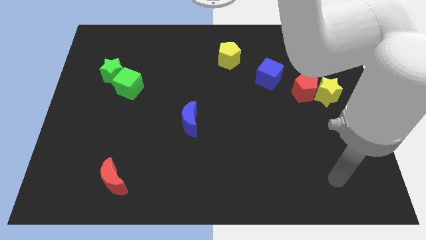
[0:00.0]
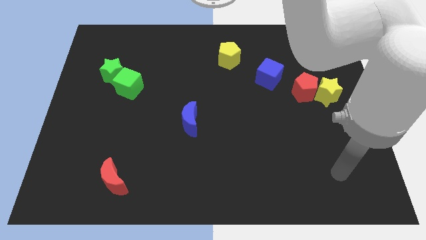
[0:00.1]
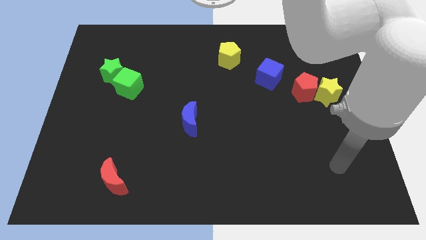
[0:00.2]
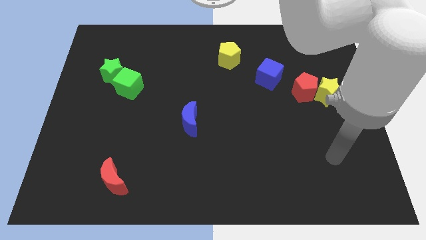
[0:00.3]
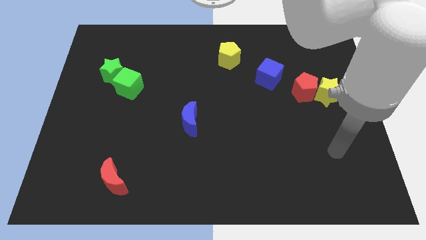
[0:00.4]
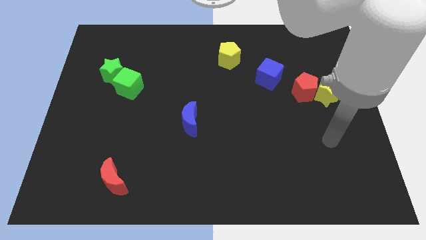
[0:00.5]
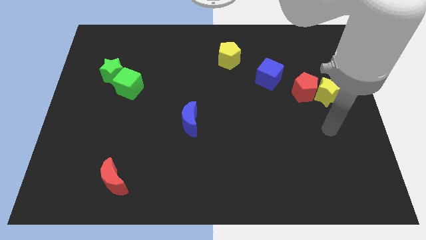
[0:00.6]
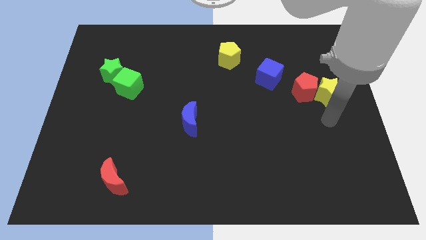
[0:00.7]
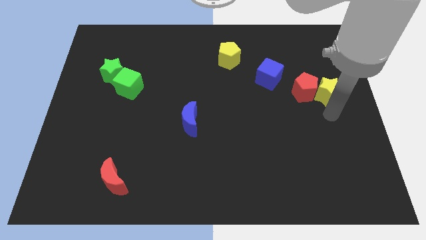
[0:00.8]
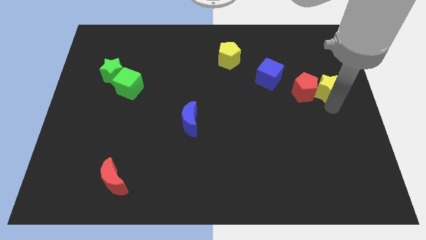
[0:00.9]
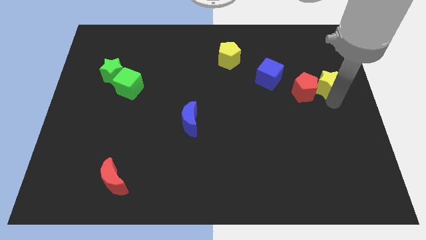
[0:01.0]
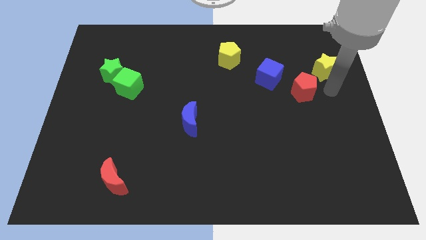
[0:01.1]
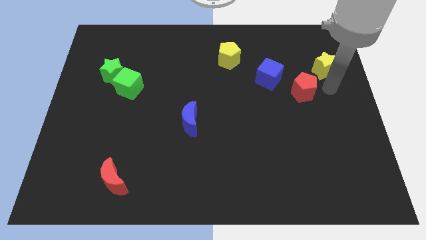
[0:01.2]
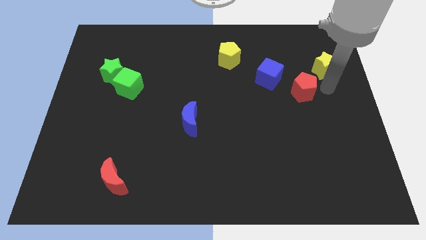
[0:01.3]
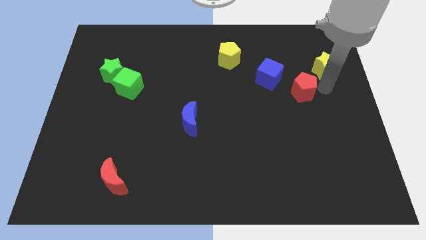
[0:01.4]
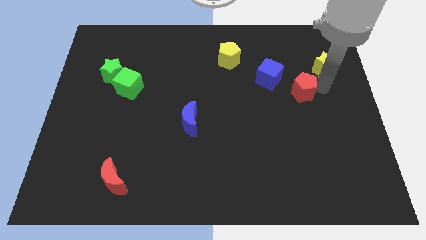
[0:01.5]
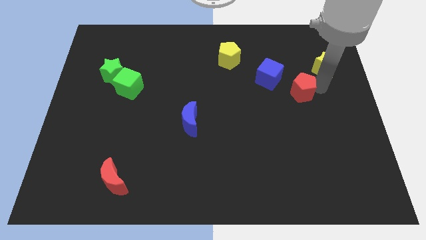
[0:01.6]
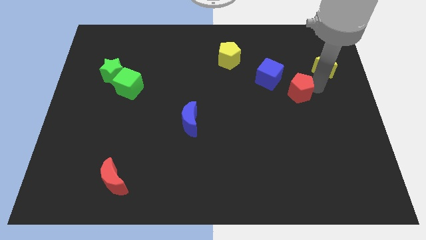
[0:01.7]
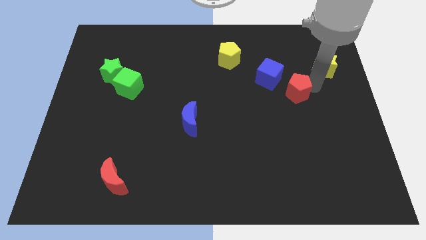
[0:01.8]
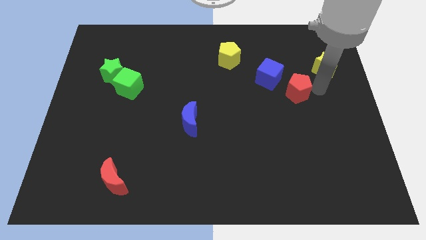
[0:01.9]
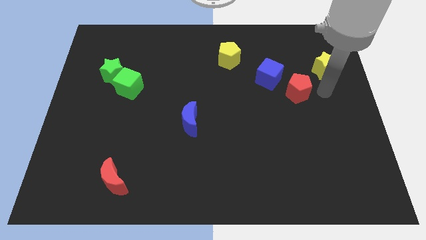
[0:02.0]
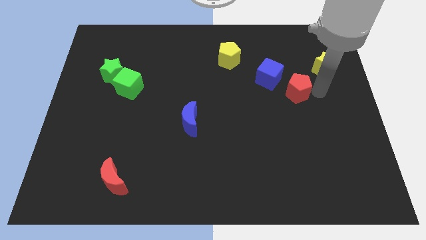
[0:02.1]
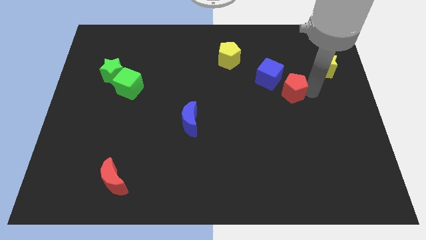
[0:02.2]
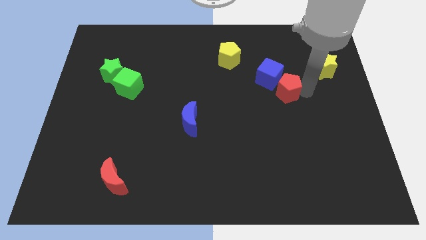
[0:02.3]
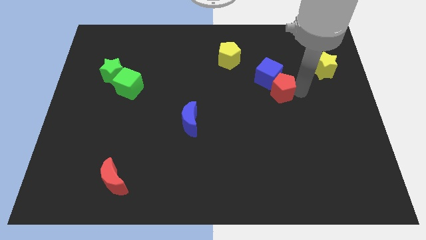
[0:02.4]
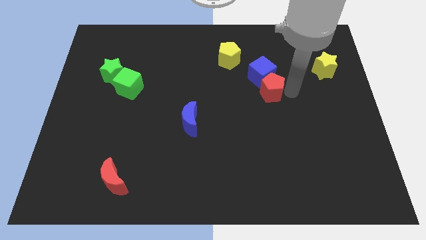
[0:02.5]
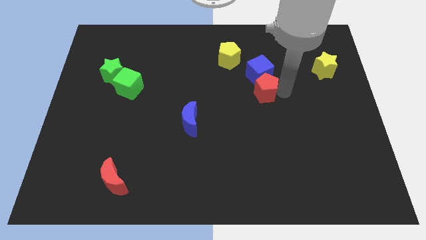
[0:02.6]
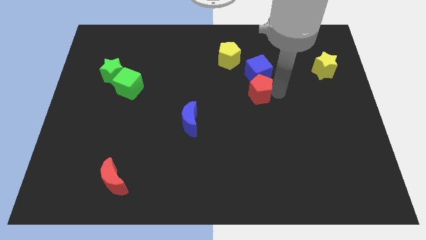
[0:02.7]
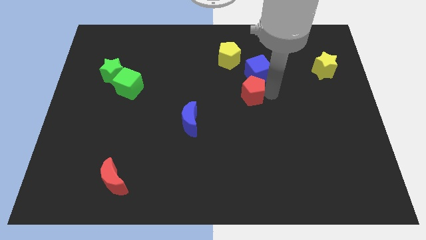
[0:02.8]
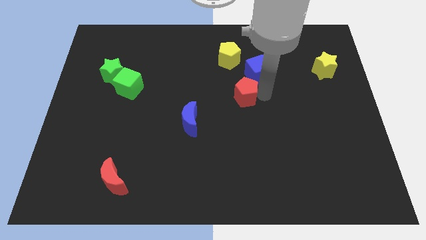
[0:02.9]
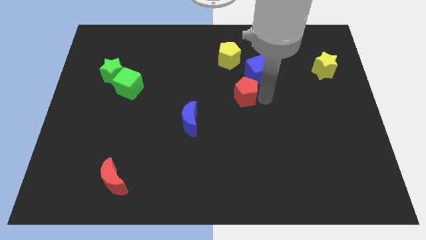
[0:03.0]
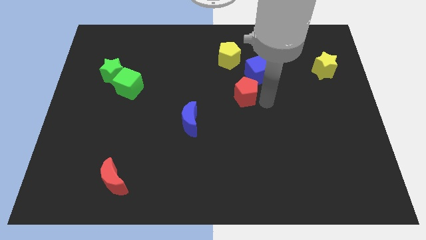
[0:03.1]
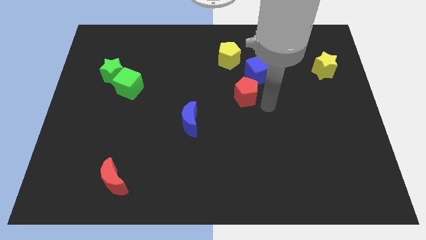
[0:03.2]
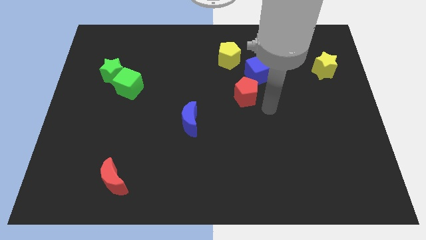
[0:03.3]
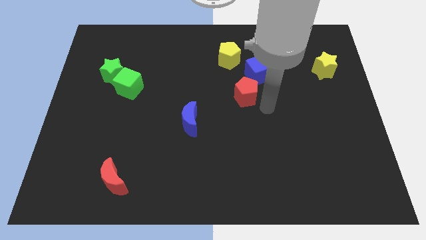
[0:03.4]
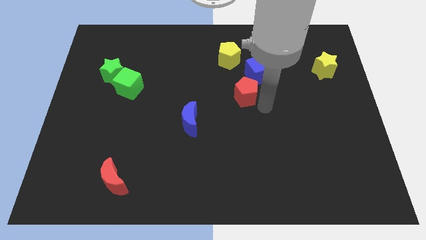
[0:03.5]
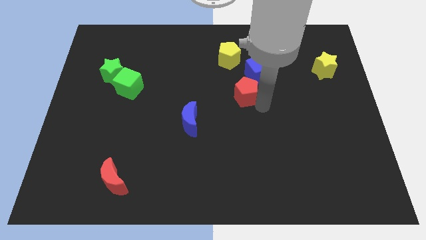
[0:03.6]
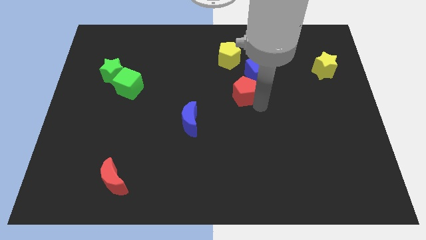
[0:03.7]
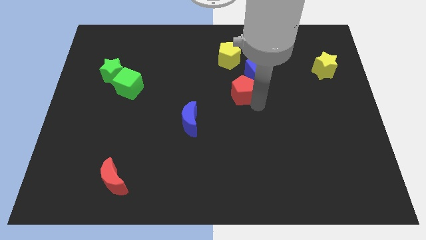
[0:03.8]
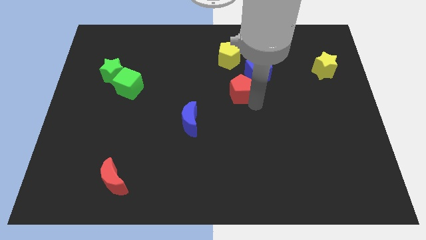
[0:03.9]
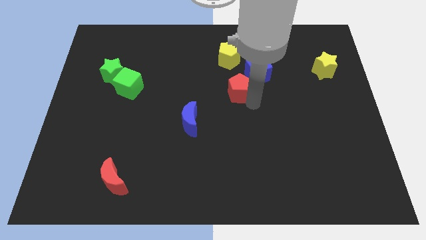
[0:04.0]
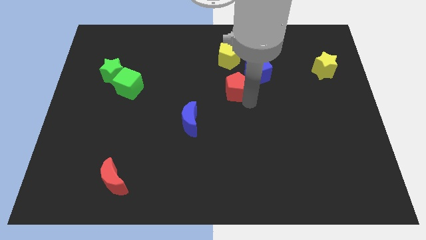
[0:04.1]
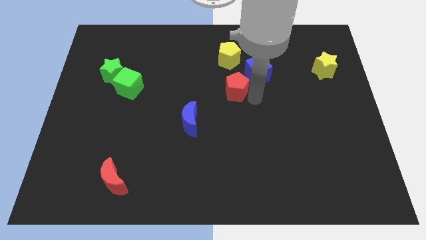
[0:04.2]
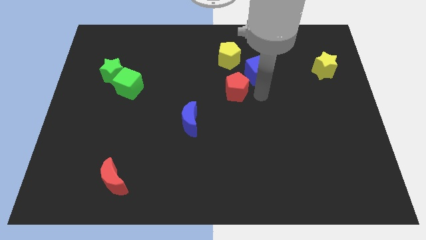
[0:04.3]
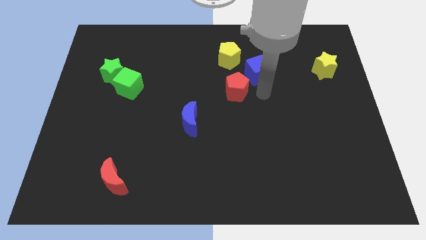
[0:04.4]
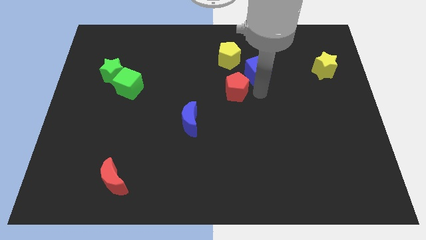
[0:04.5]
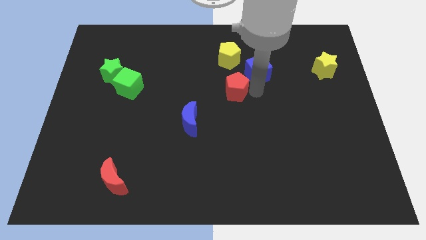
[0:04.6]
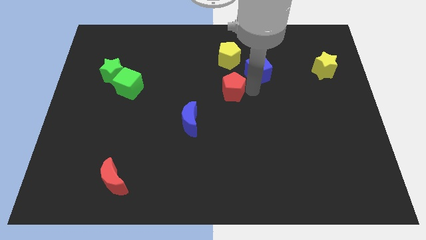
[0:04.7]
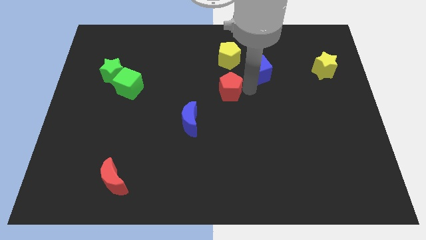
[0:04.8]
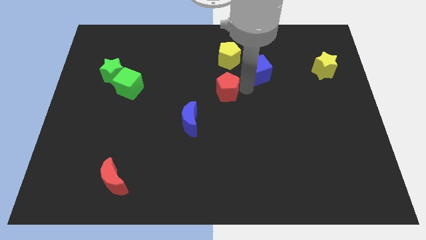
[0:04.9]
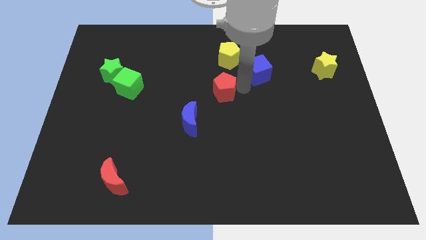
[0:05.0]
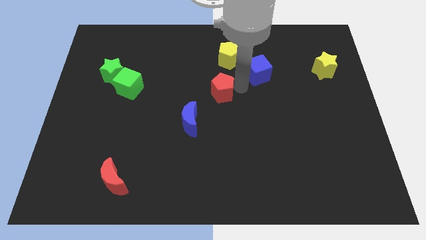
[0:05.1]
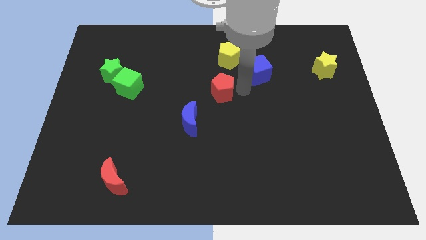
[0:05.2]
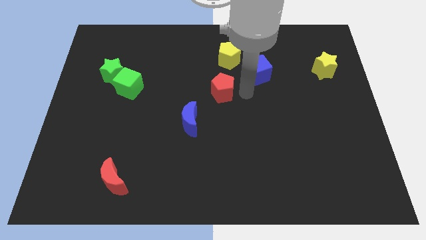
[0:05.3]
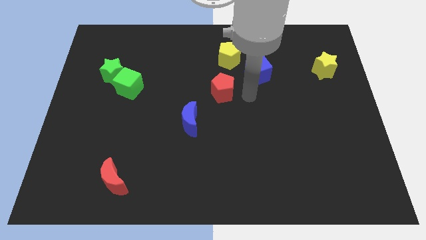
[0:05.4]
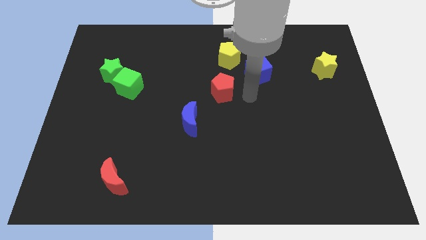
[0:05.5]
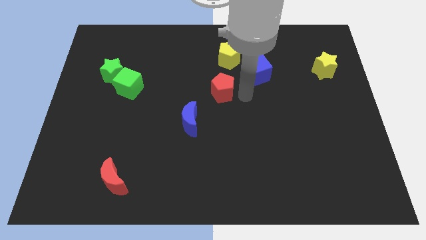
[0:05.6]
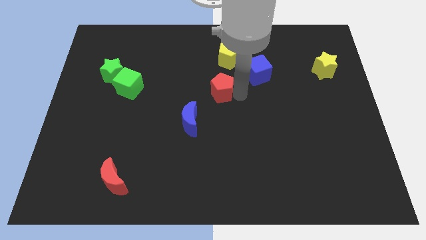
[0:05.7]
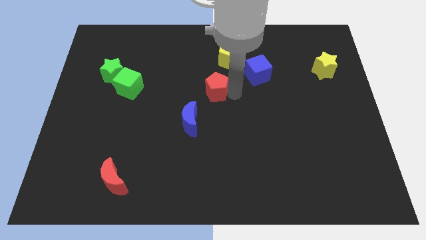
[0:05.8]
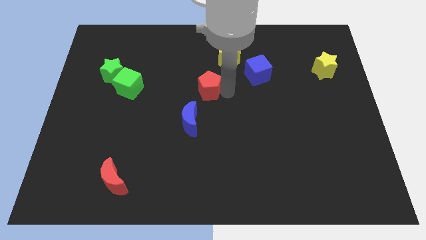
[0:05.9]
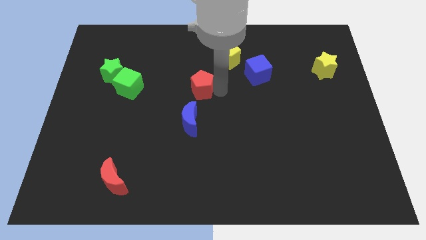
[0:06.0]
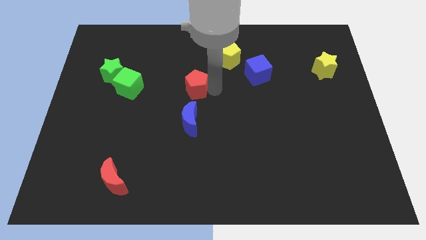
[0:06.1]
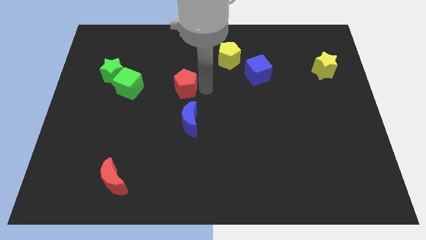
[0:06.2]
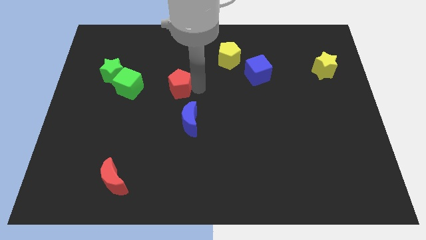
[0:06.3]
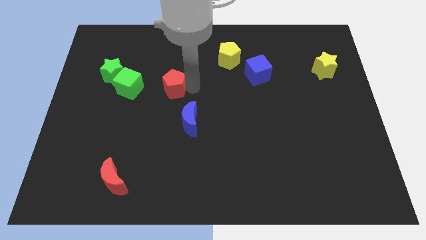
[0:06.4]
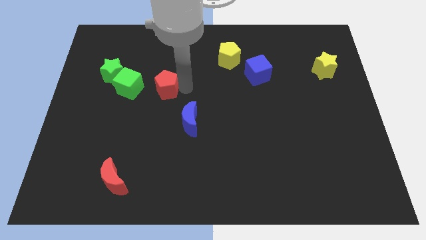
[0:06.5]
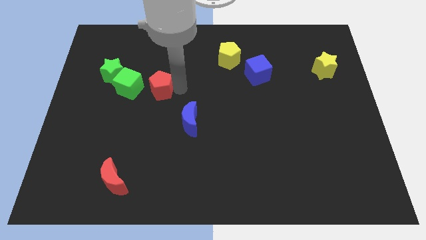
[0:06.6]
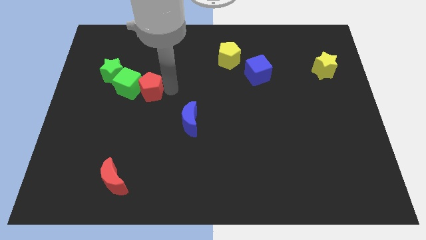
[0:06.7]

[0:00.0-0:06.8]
move the red pentagon next to the green cube
